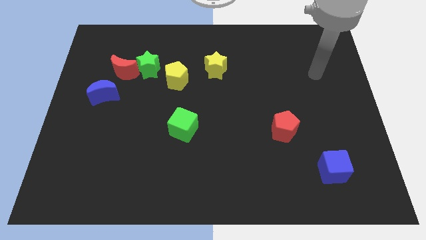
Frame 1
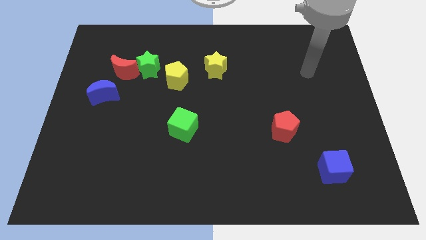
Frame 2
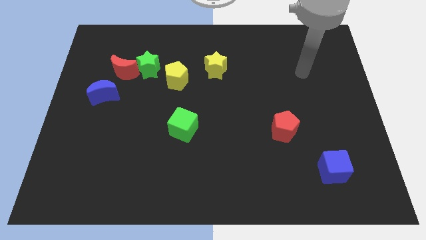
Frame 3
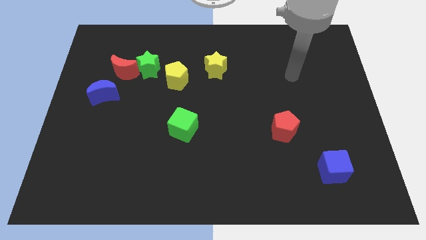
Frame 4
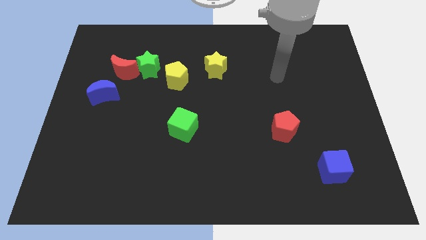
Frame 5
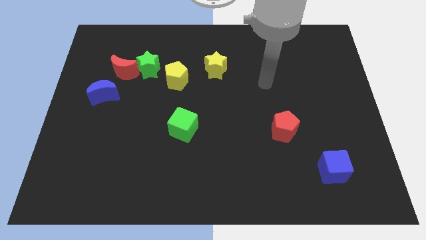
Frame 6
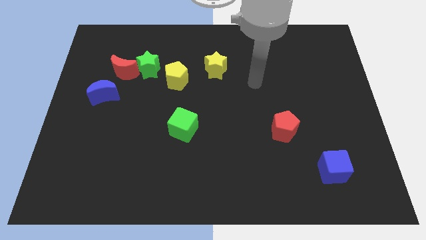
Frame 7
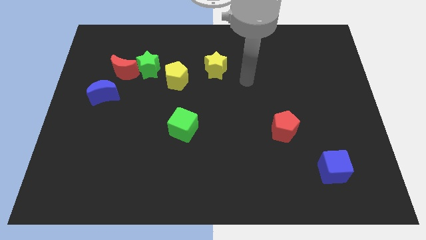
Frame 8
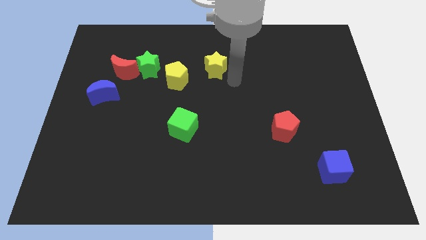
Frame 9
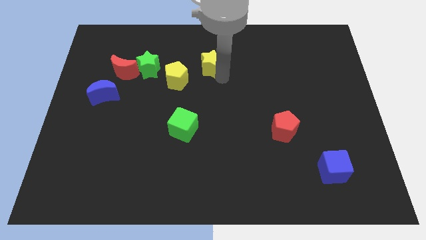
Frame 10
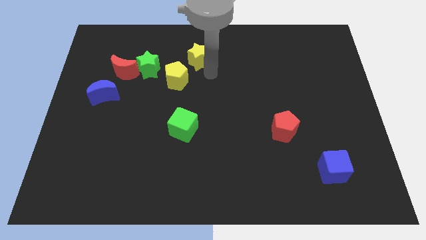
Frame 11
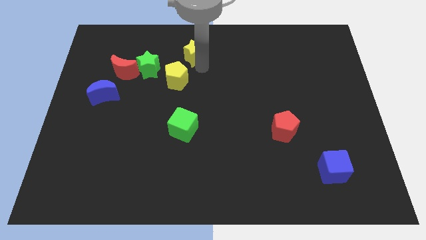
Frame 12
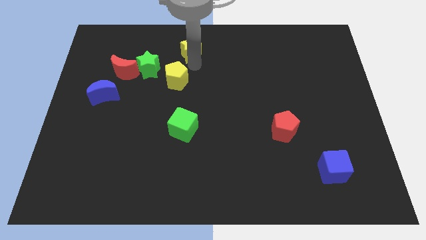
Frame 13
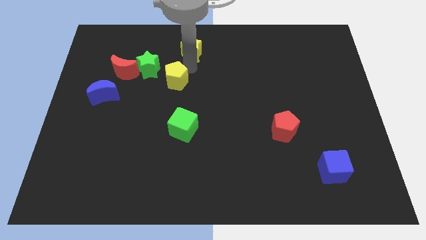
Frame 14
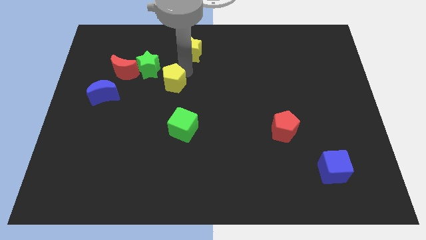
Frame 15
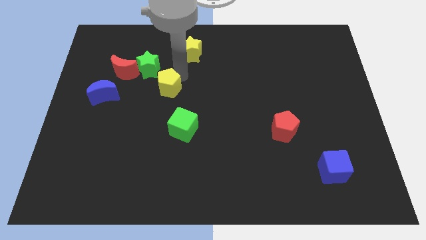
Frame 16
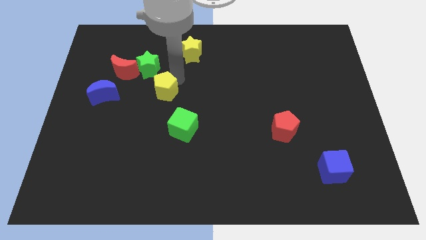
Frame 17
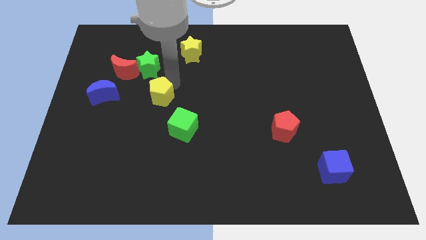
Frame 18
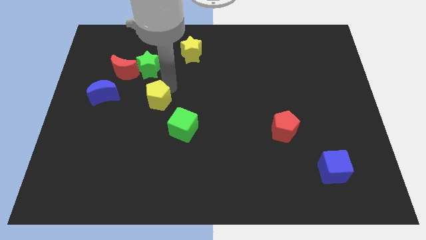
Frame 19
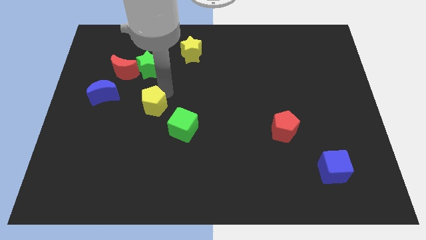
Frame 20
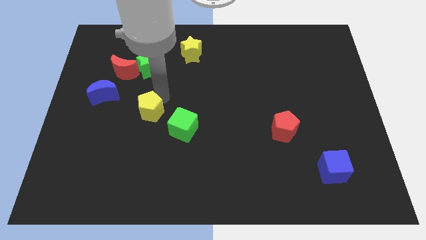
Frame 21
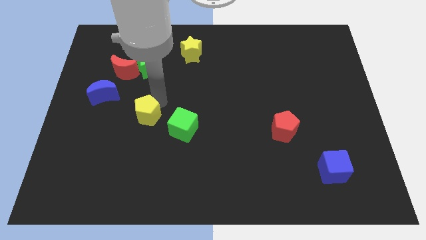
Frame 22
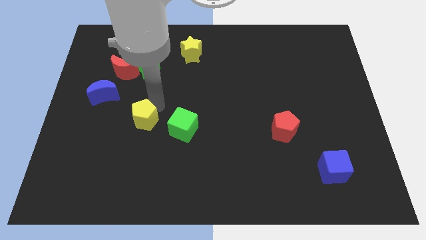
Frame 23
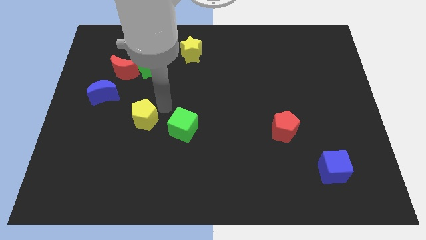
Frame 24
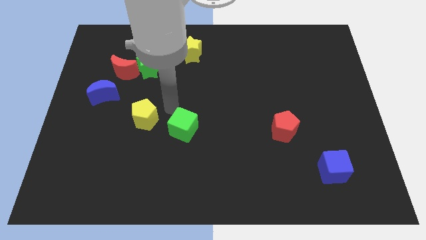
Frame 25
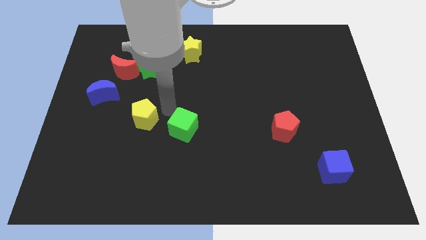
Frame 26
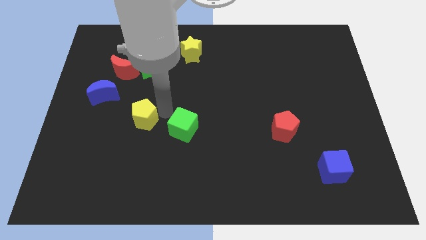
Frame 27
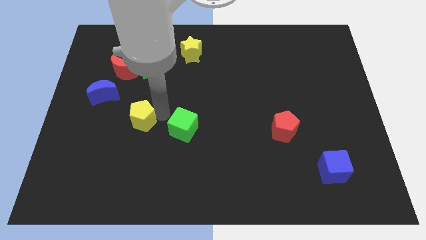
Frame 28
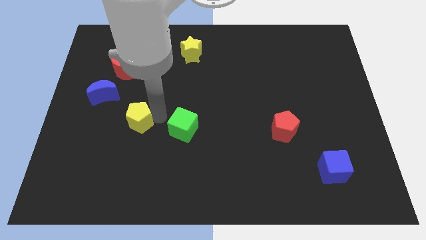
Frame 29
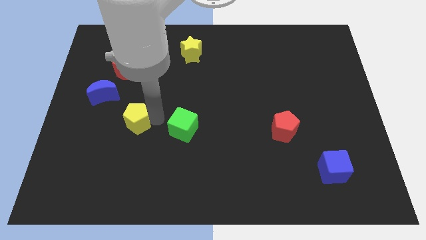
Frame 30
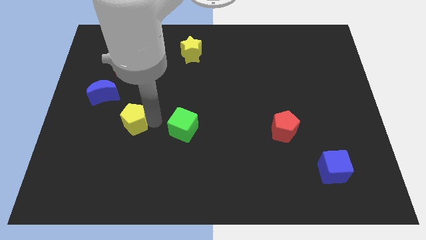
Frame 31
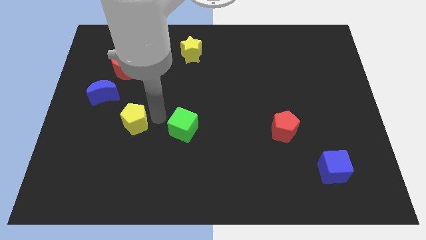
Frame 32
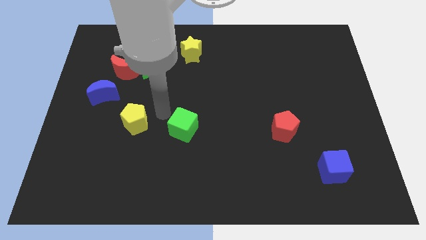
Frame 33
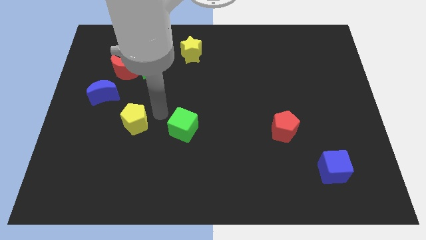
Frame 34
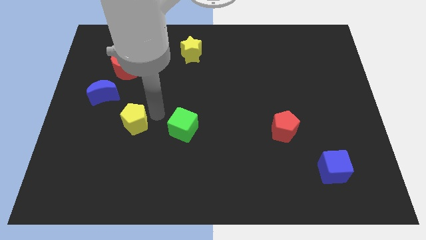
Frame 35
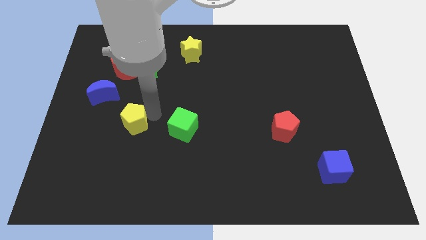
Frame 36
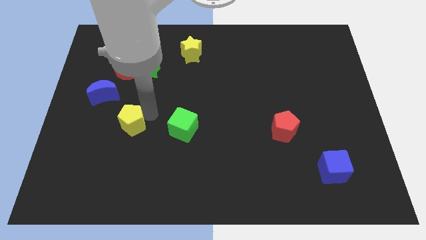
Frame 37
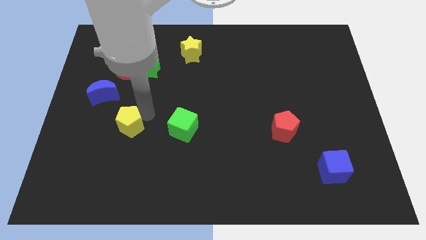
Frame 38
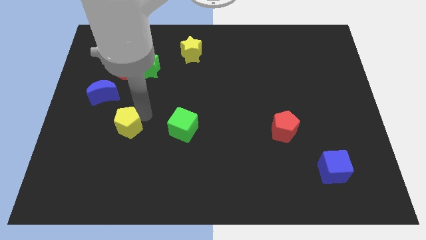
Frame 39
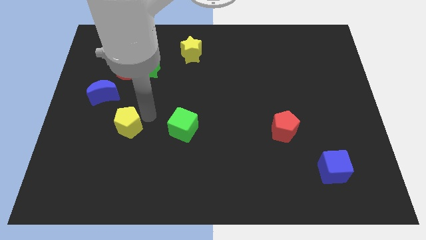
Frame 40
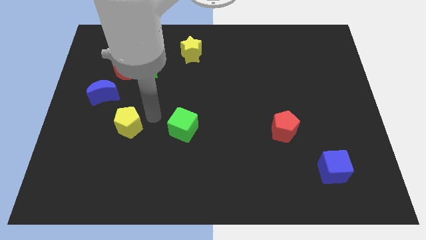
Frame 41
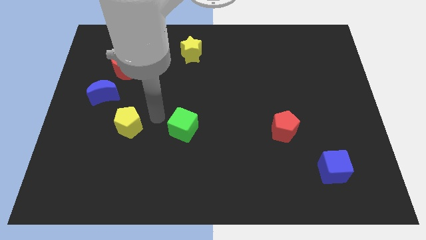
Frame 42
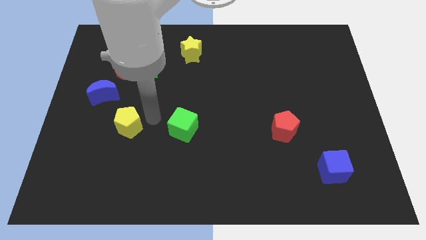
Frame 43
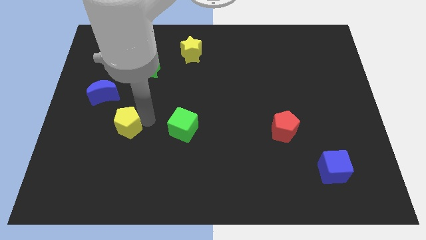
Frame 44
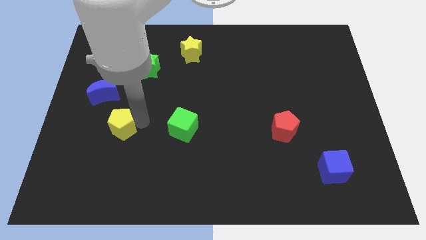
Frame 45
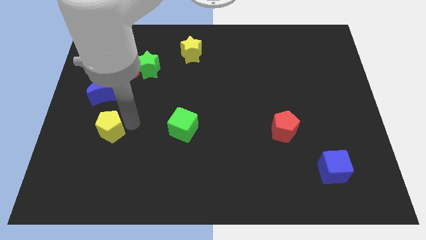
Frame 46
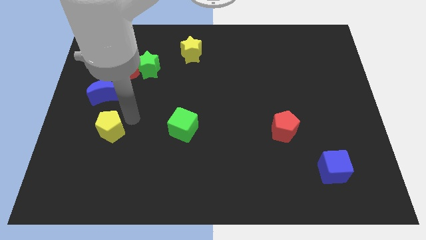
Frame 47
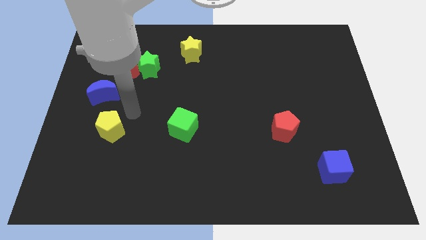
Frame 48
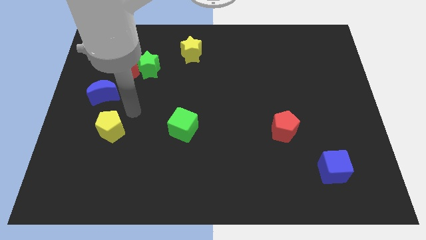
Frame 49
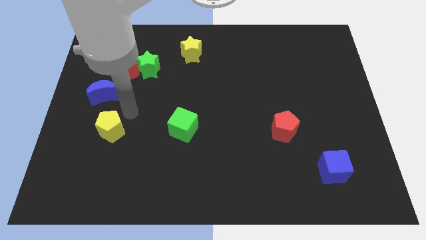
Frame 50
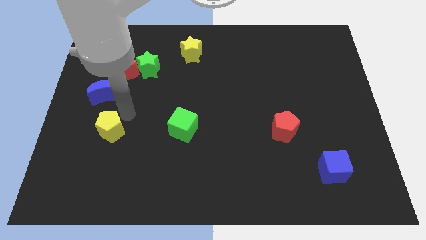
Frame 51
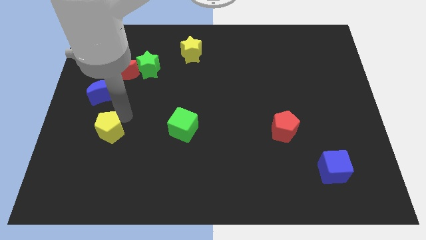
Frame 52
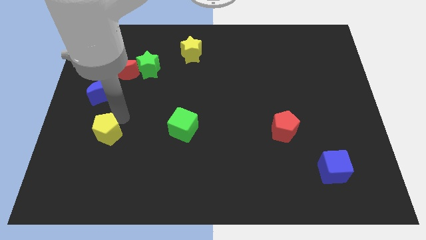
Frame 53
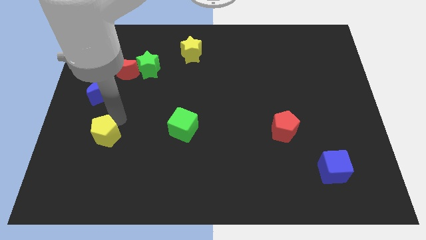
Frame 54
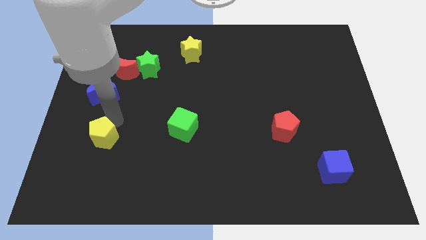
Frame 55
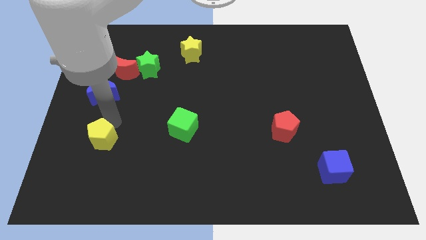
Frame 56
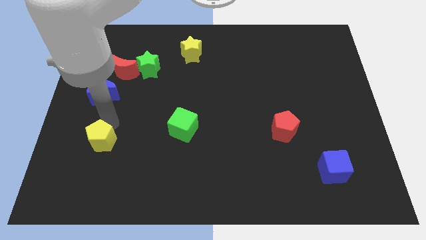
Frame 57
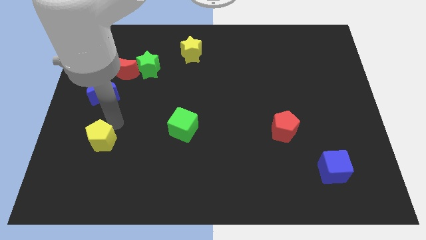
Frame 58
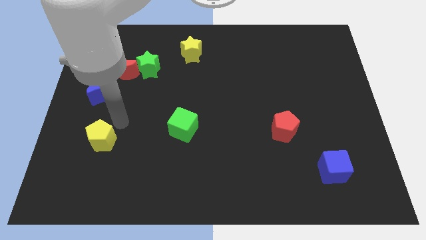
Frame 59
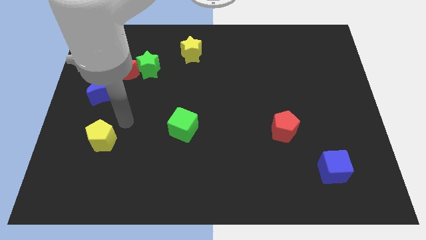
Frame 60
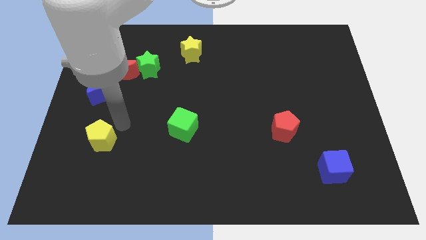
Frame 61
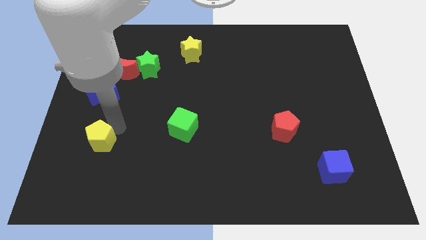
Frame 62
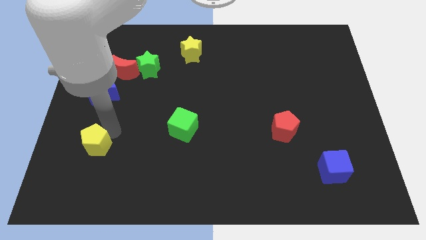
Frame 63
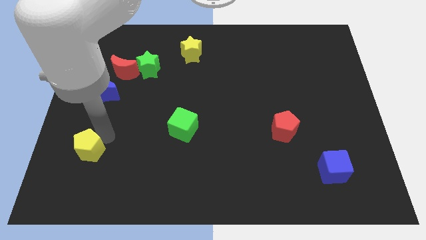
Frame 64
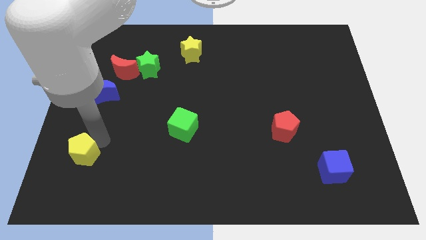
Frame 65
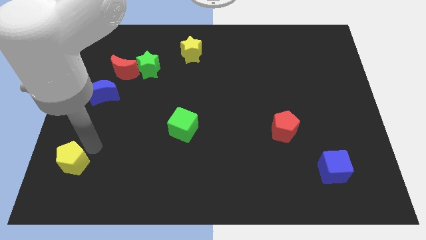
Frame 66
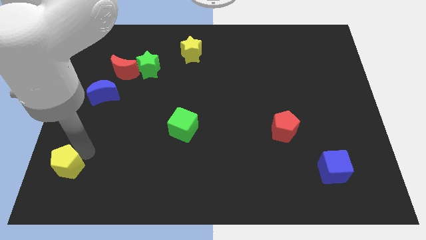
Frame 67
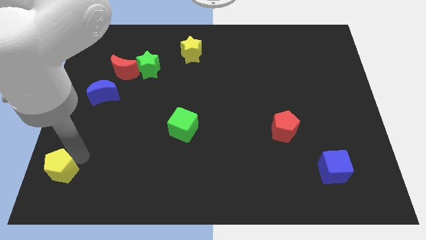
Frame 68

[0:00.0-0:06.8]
push the yellow pentagon to the bottom left of the board
